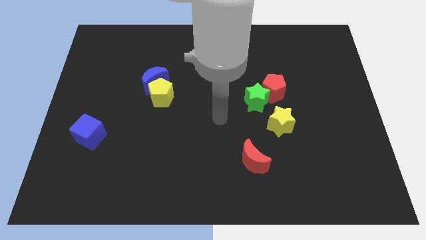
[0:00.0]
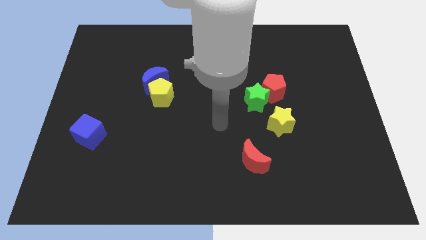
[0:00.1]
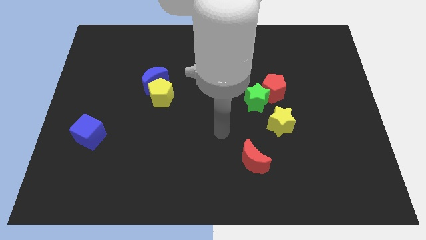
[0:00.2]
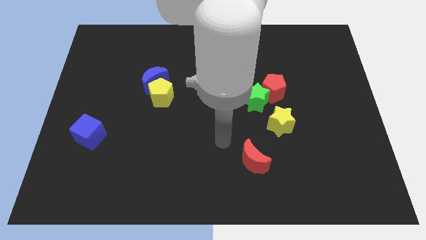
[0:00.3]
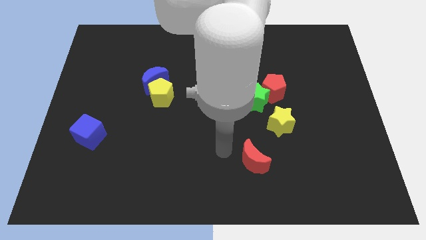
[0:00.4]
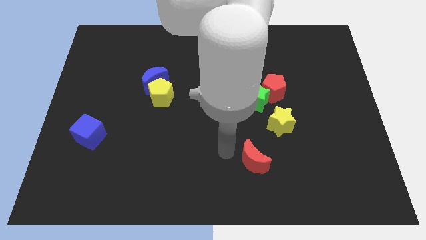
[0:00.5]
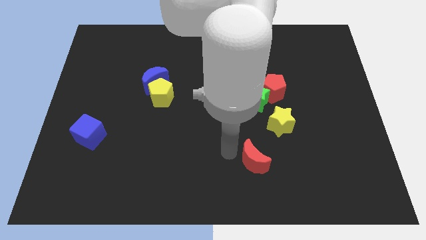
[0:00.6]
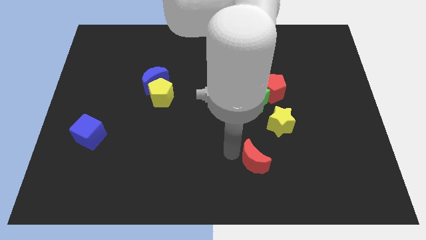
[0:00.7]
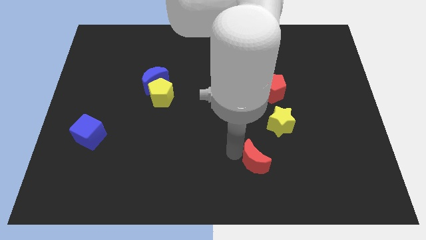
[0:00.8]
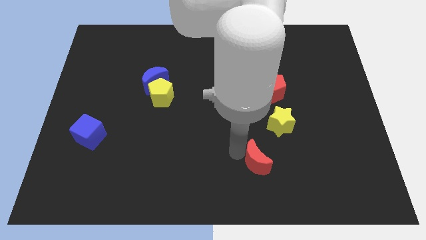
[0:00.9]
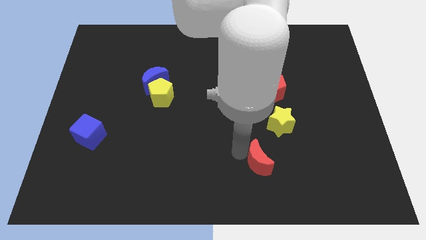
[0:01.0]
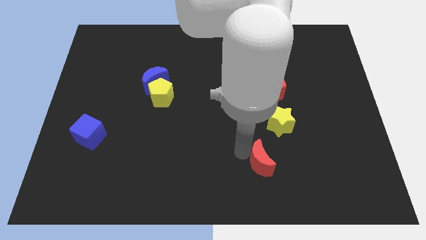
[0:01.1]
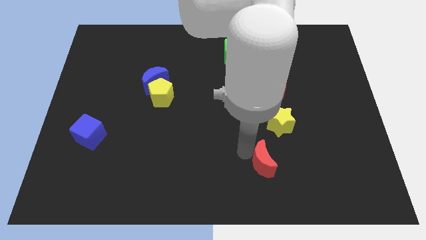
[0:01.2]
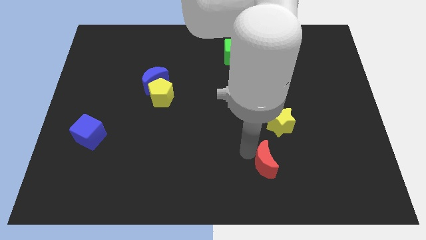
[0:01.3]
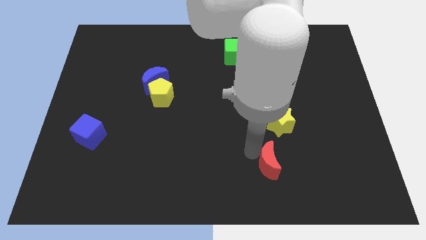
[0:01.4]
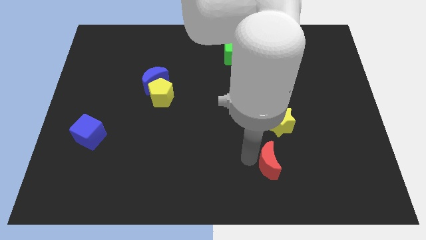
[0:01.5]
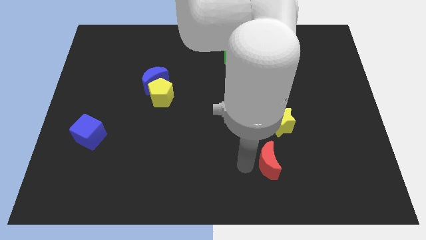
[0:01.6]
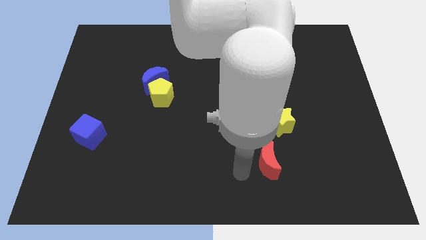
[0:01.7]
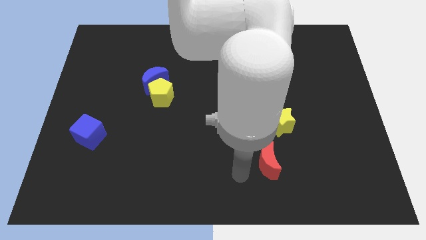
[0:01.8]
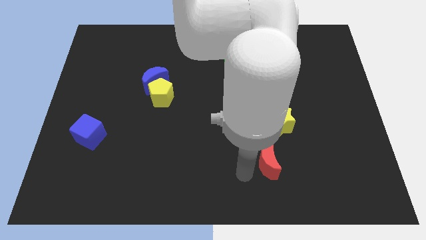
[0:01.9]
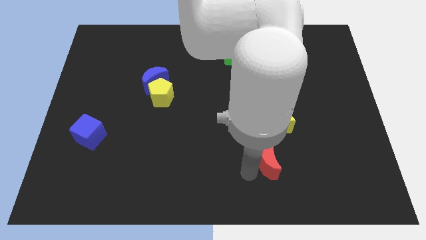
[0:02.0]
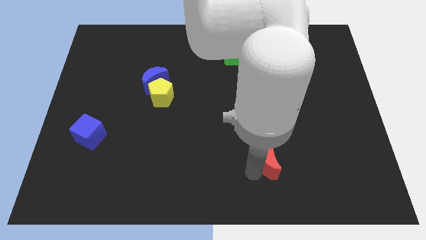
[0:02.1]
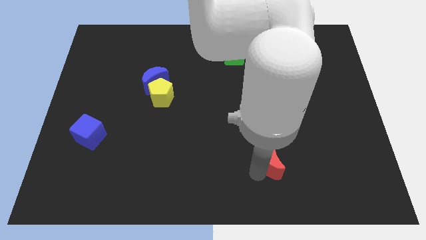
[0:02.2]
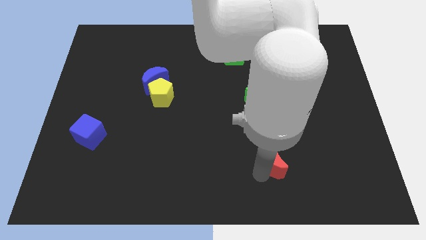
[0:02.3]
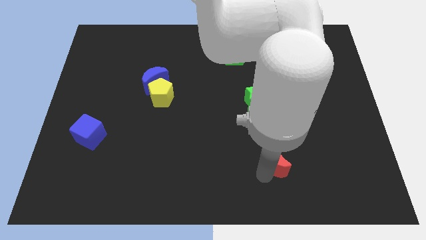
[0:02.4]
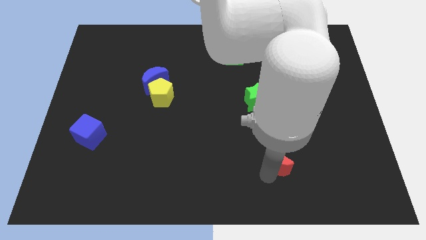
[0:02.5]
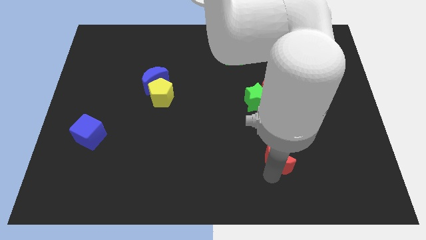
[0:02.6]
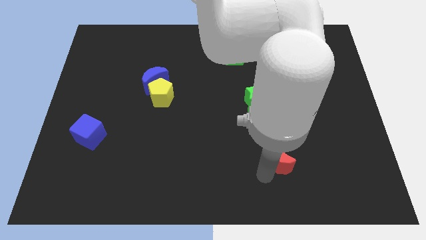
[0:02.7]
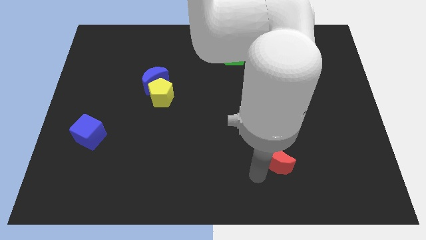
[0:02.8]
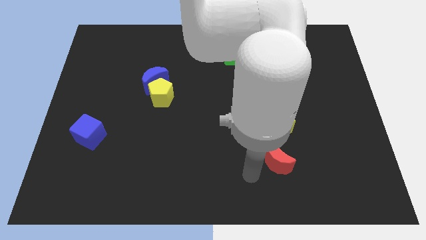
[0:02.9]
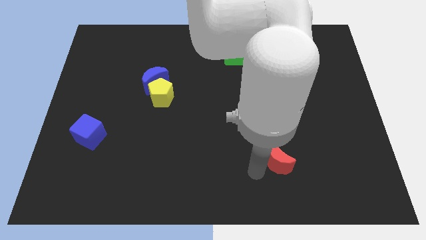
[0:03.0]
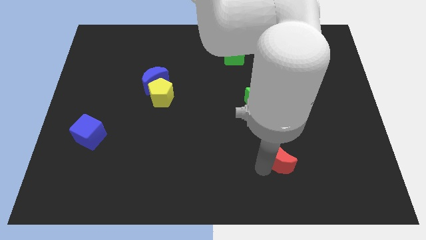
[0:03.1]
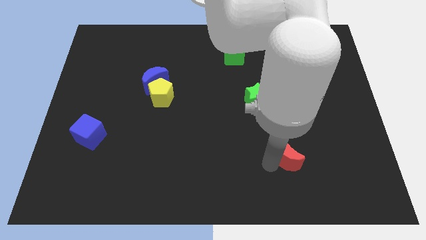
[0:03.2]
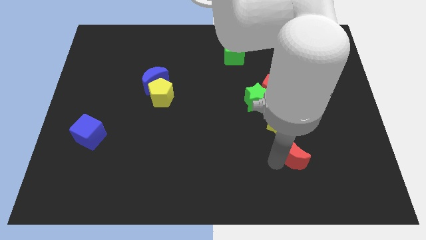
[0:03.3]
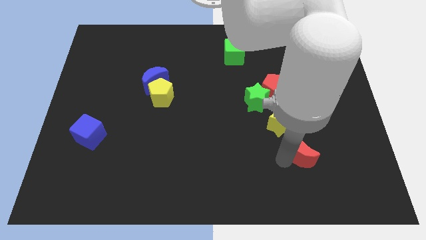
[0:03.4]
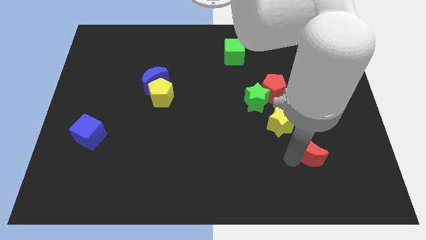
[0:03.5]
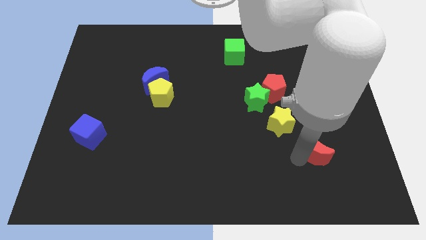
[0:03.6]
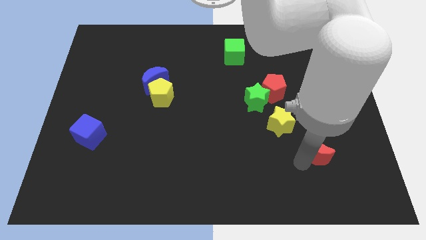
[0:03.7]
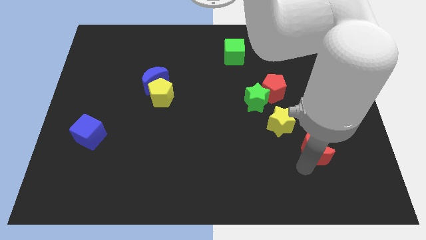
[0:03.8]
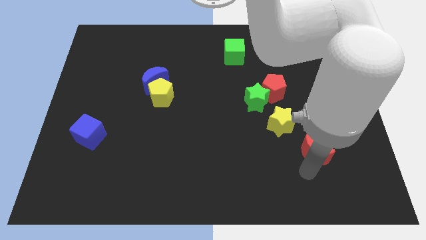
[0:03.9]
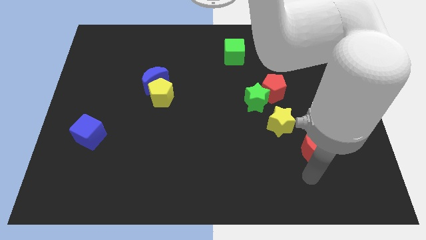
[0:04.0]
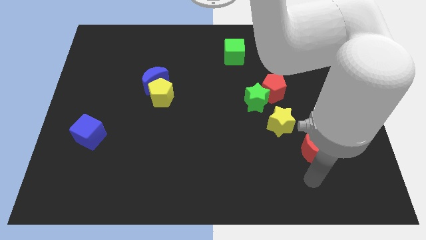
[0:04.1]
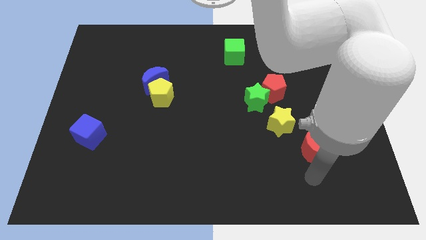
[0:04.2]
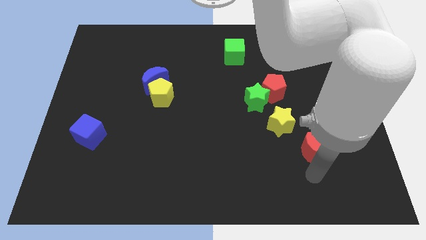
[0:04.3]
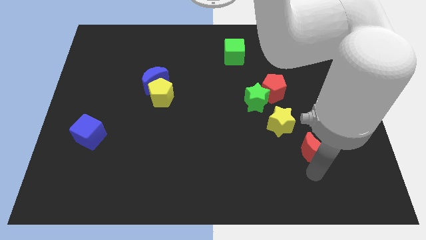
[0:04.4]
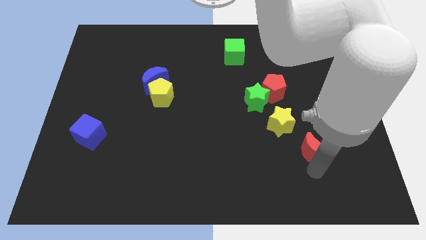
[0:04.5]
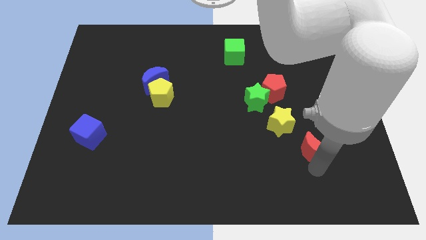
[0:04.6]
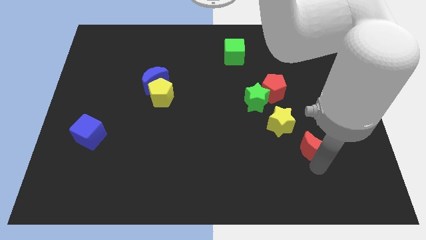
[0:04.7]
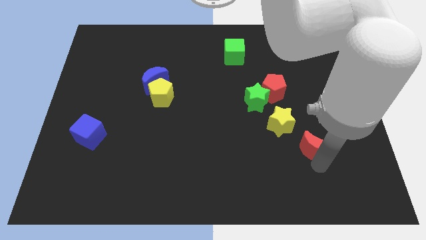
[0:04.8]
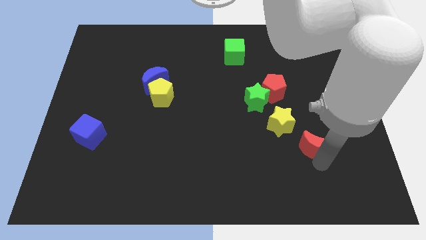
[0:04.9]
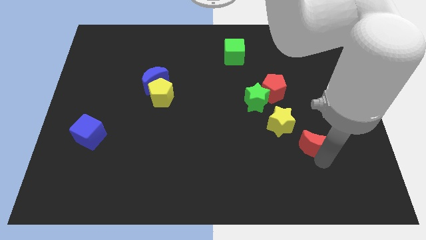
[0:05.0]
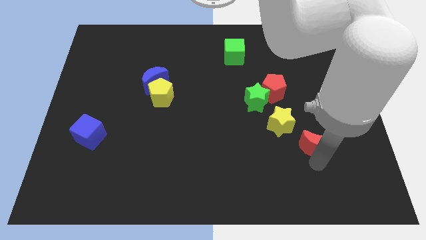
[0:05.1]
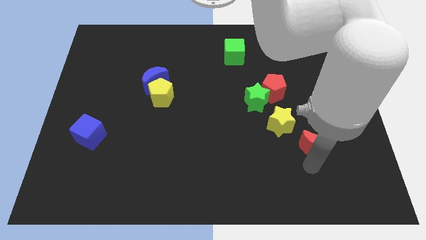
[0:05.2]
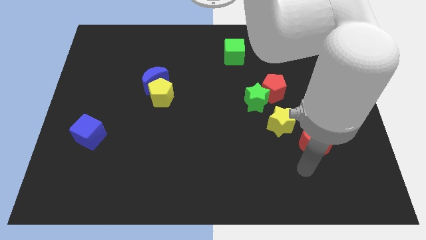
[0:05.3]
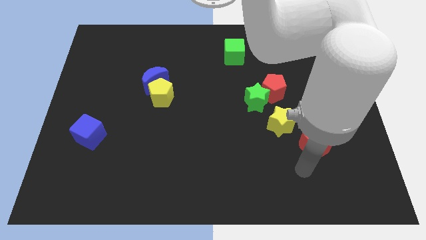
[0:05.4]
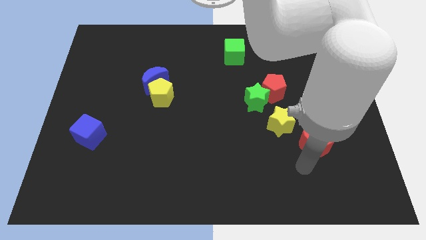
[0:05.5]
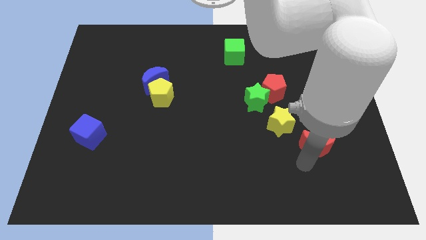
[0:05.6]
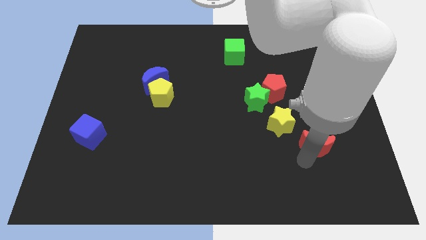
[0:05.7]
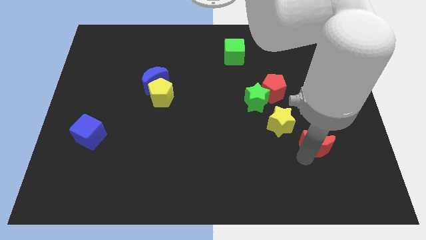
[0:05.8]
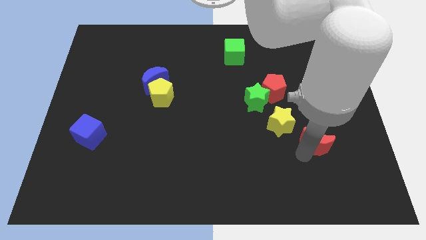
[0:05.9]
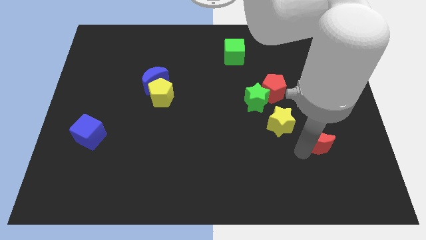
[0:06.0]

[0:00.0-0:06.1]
put the red moon to the right of the yellow star
